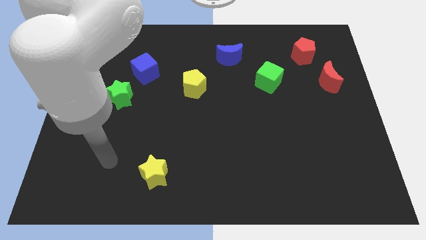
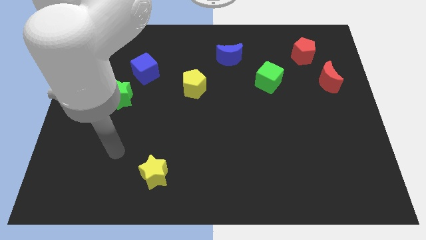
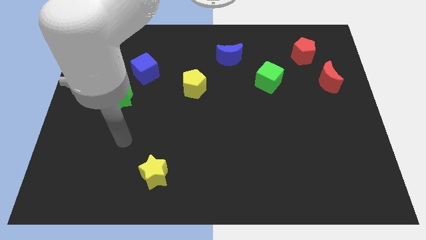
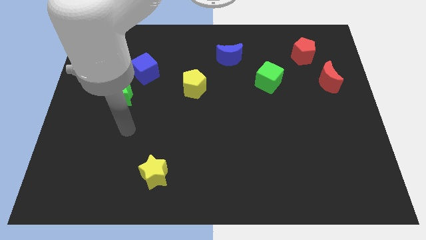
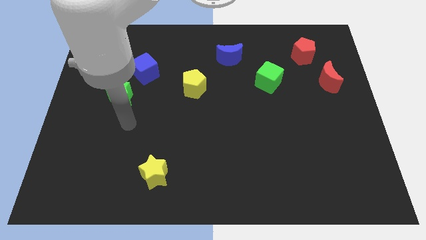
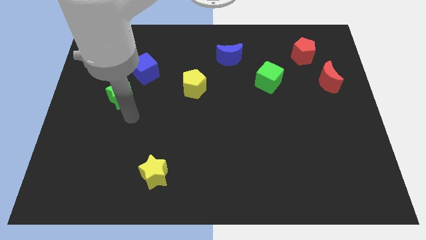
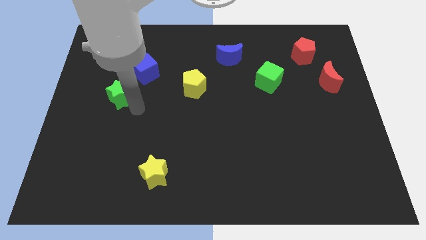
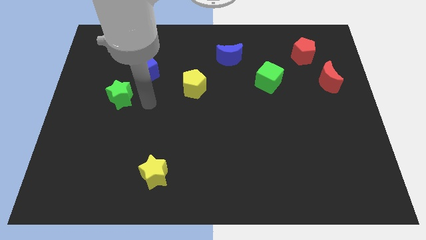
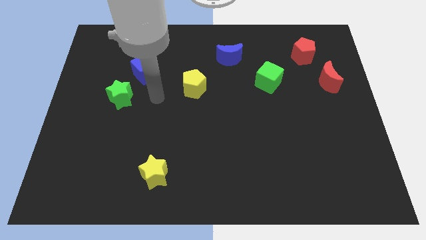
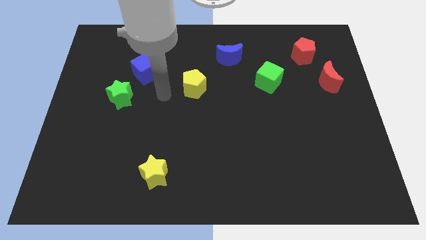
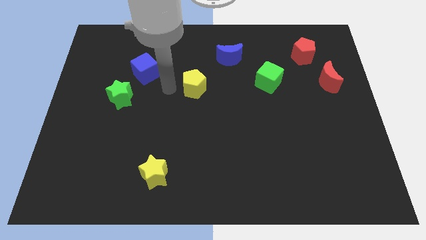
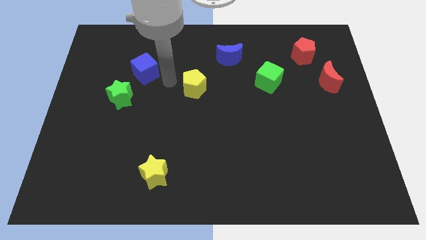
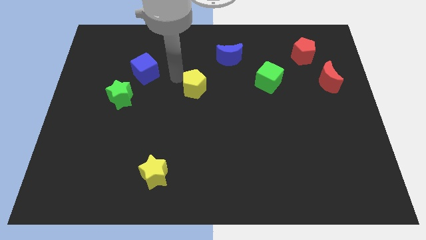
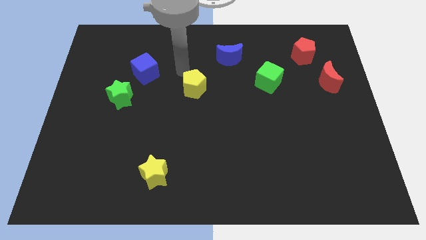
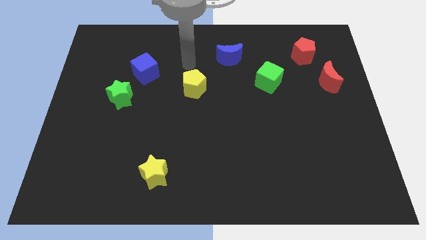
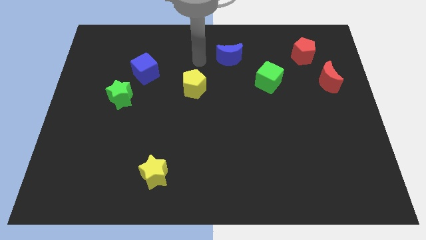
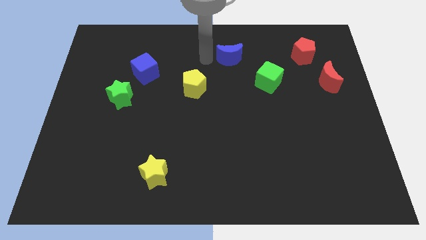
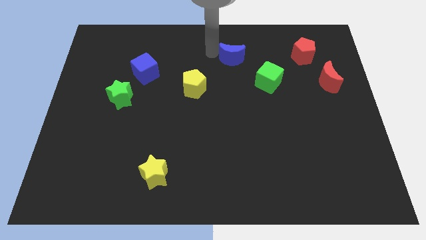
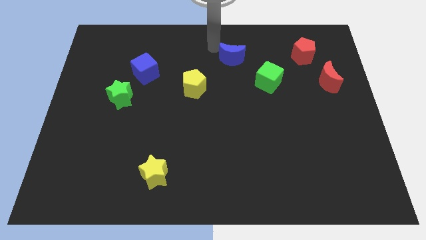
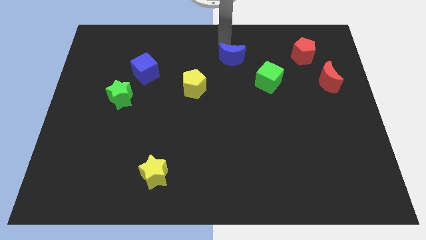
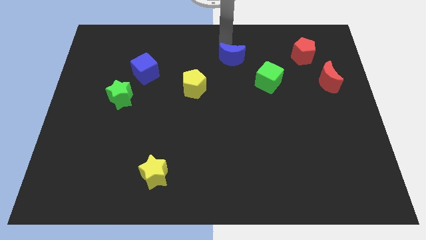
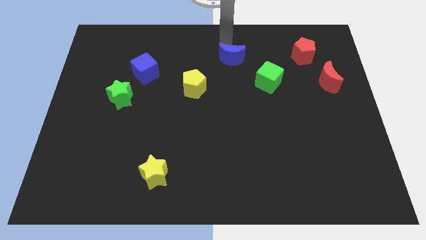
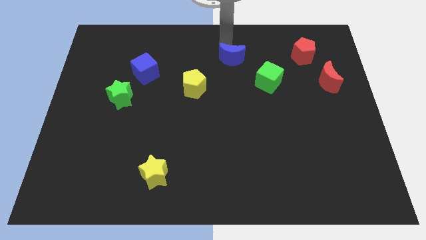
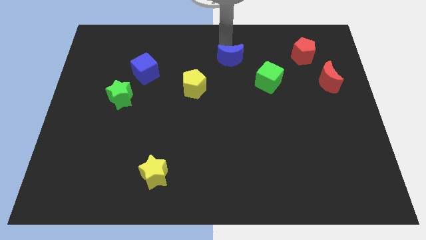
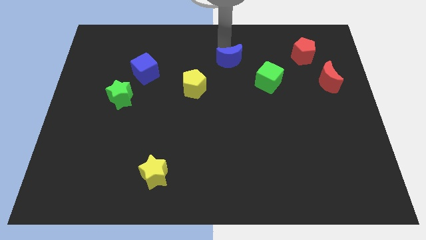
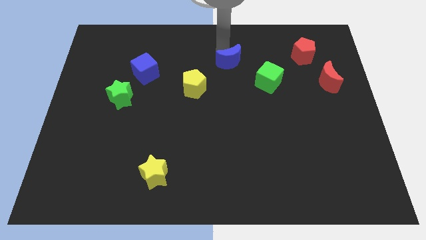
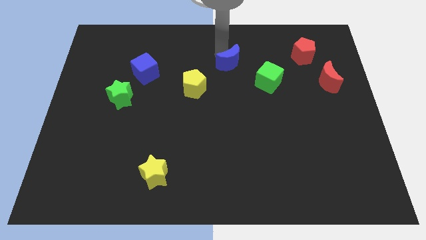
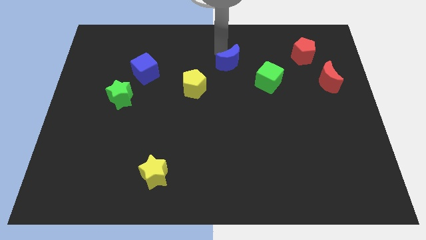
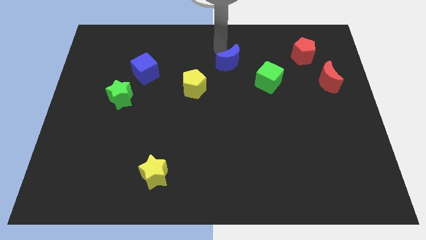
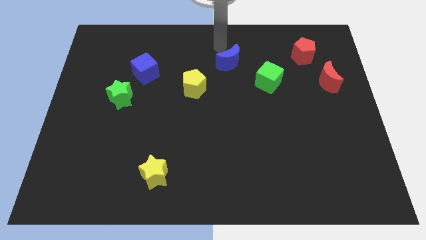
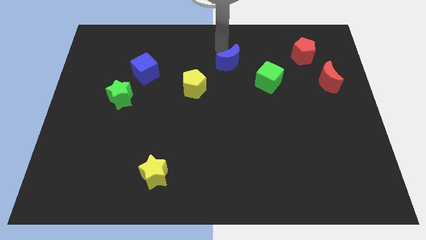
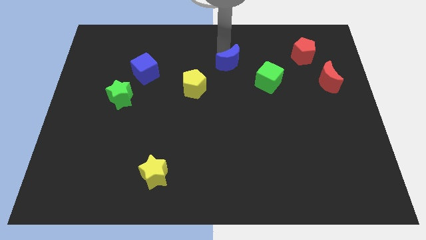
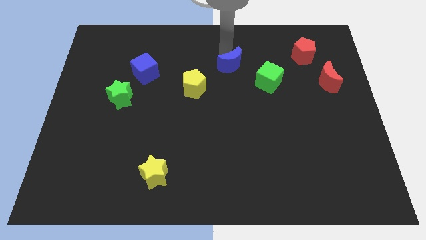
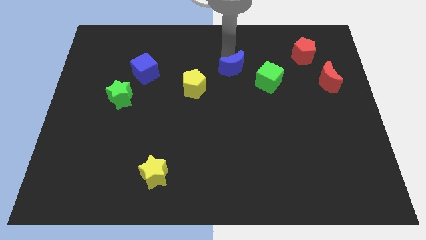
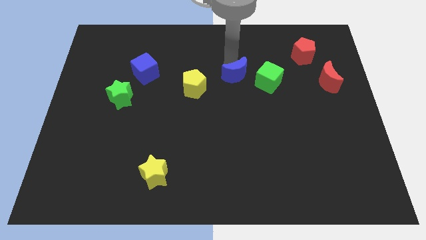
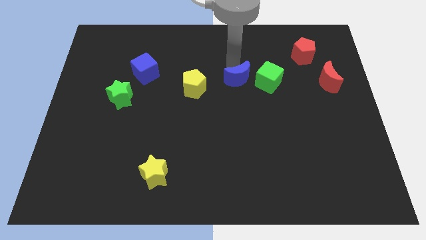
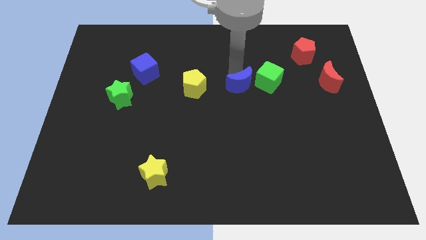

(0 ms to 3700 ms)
slightly slide the blue moon diagonally downwards and to the right

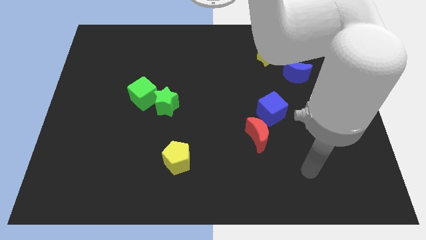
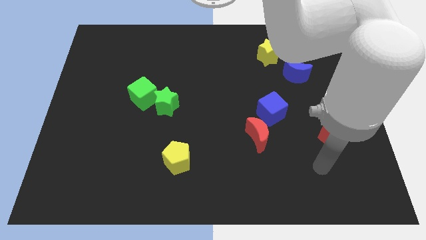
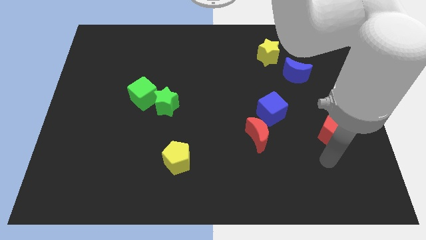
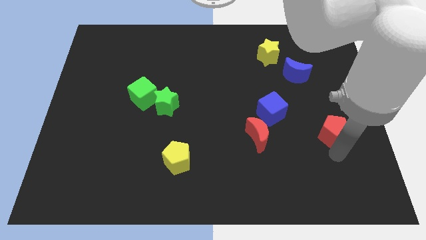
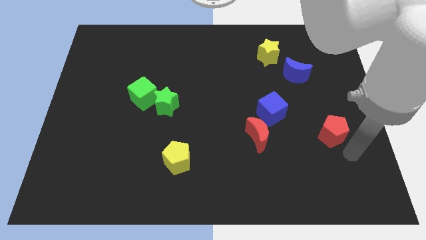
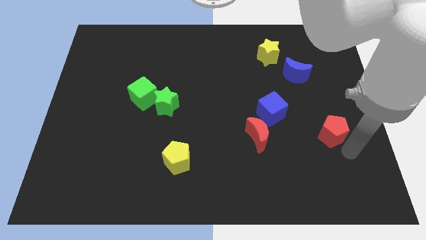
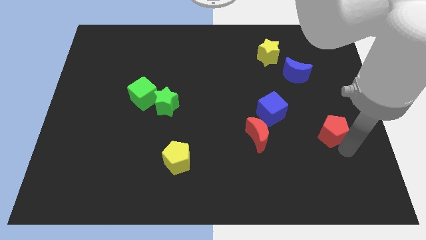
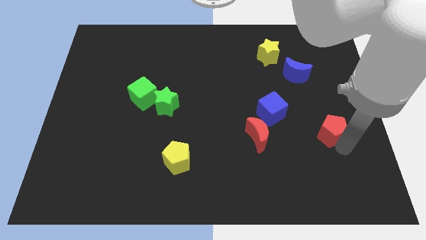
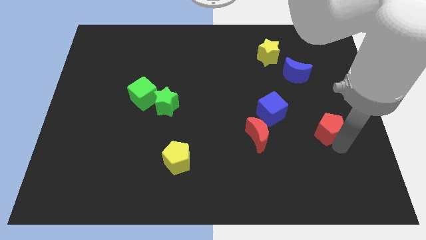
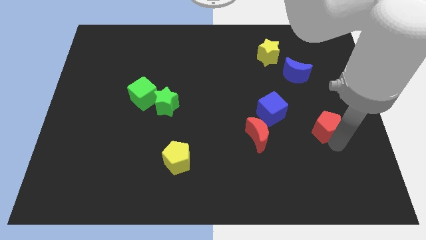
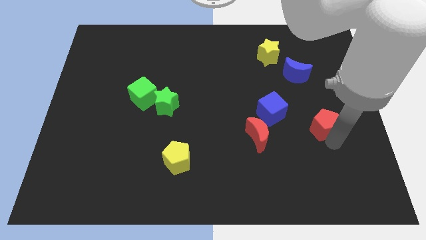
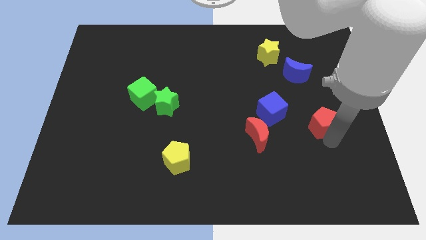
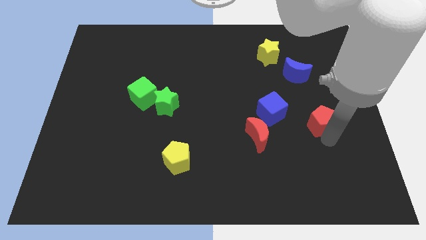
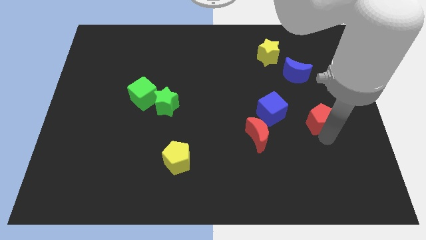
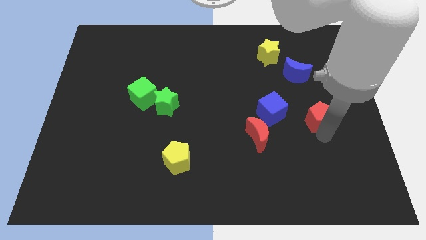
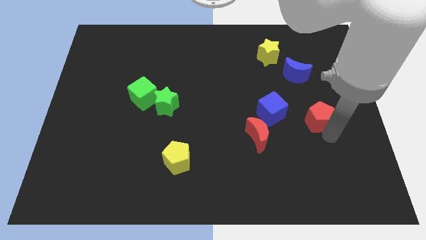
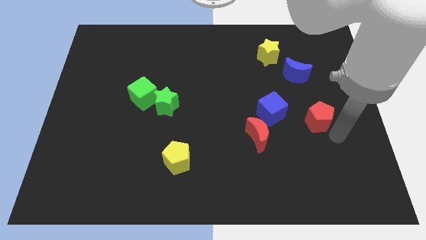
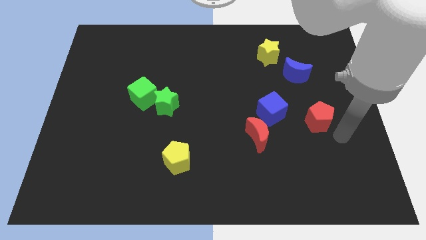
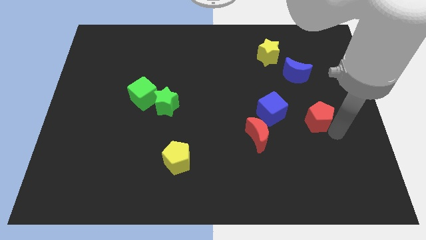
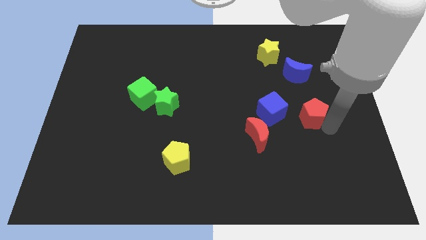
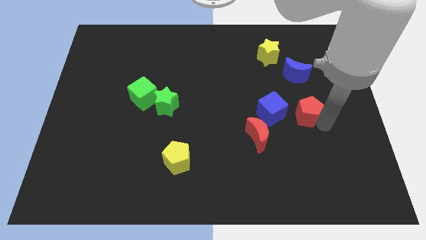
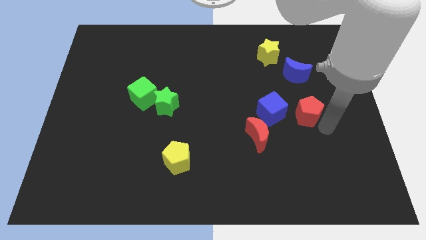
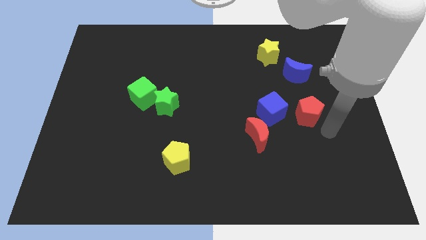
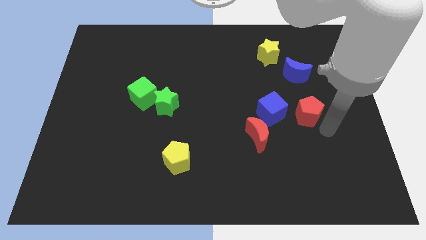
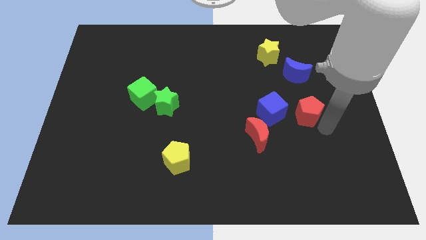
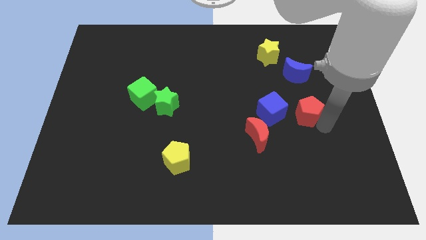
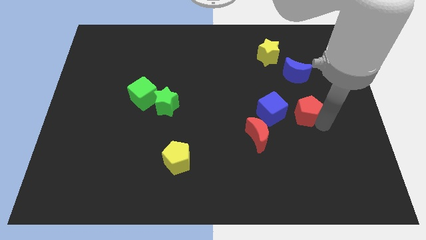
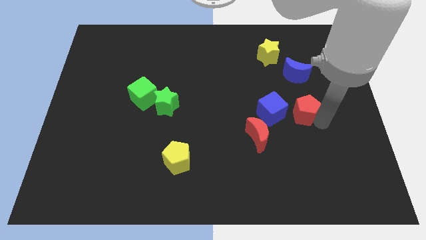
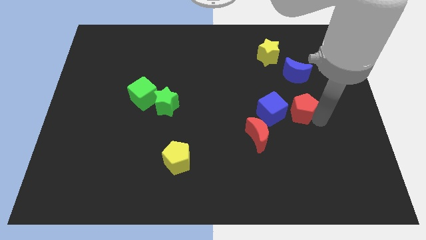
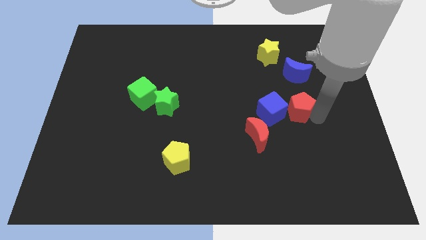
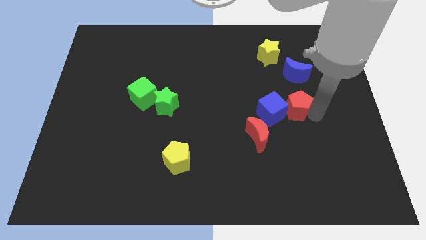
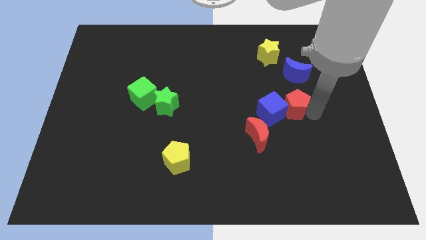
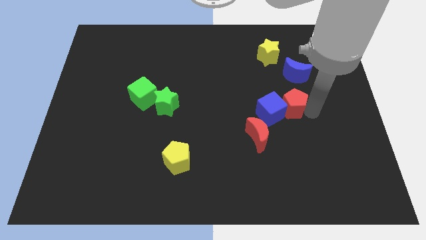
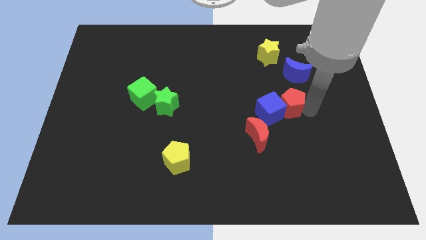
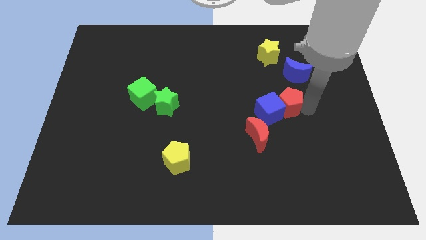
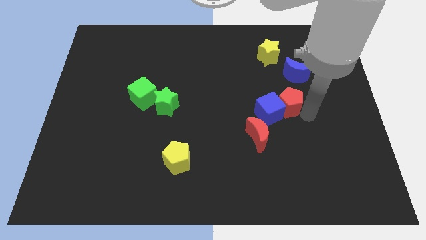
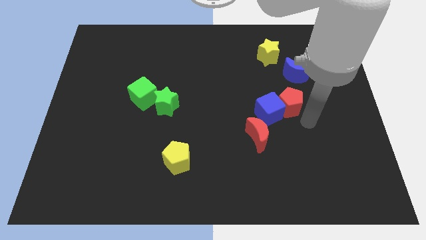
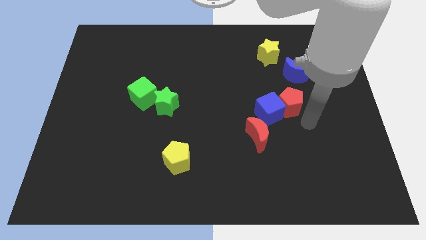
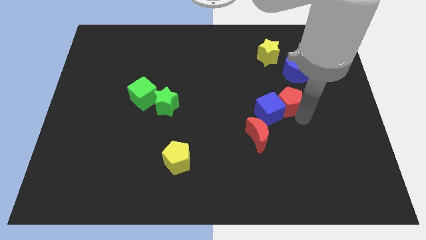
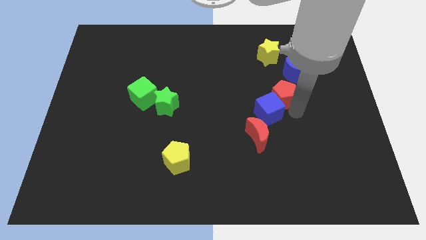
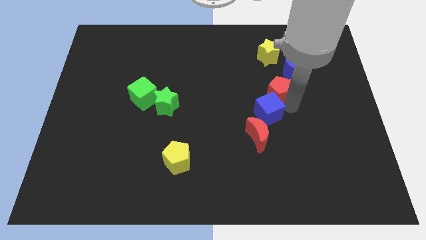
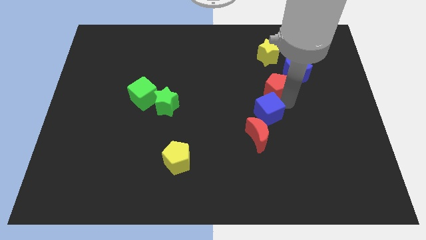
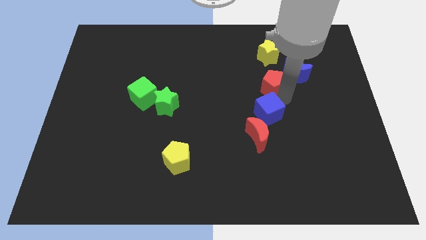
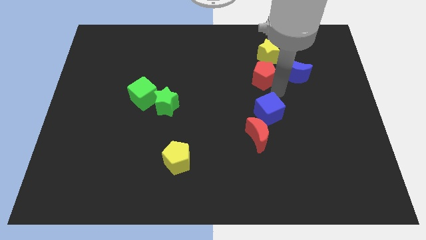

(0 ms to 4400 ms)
slide the red pentagon up and then left
